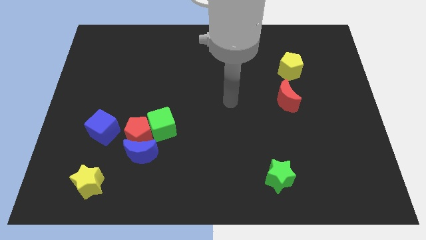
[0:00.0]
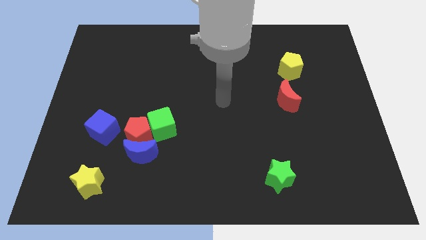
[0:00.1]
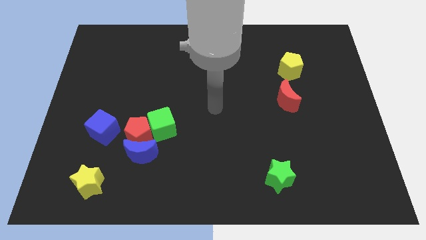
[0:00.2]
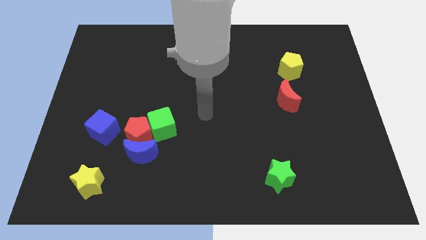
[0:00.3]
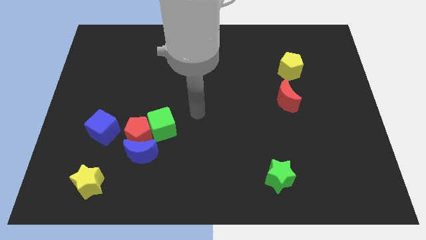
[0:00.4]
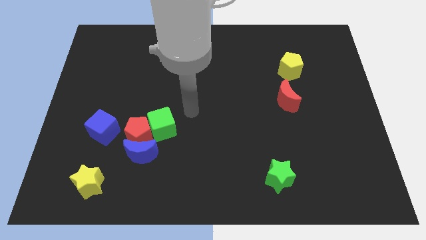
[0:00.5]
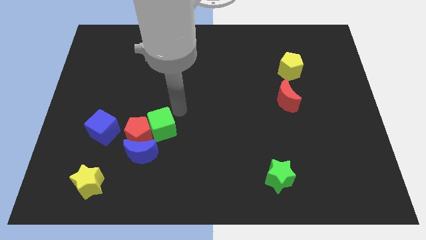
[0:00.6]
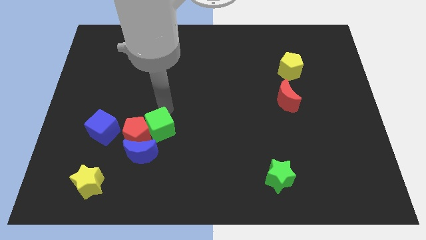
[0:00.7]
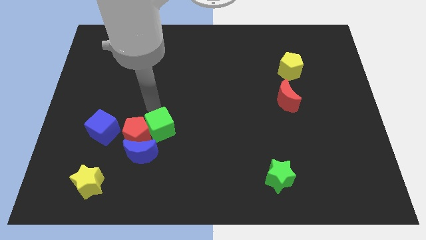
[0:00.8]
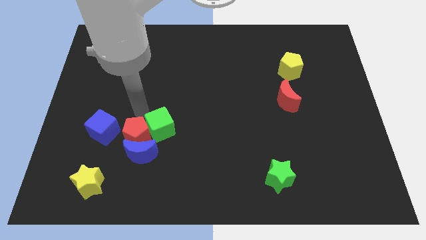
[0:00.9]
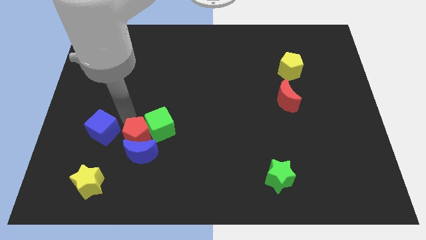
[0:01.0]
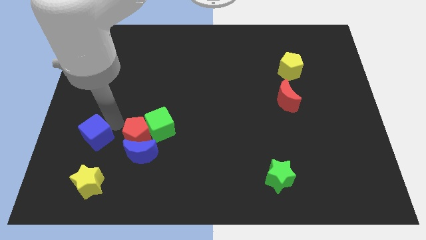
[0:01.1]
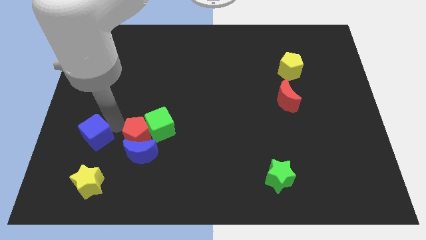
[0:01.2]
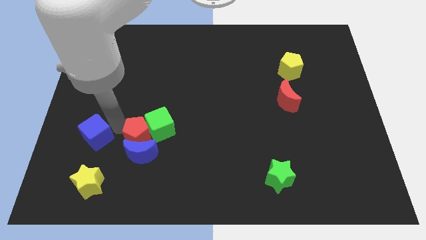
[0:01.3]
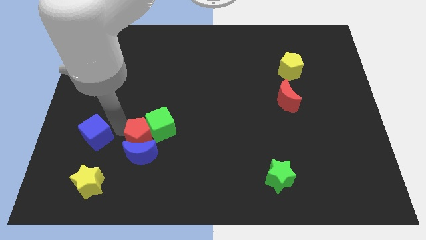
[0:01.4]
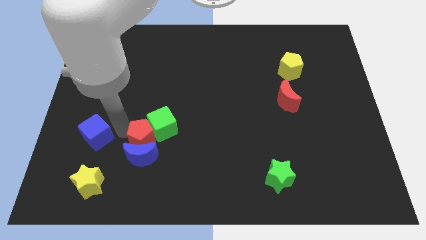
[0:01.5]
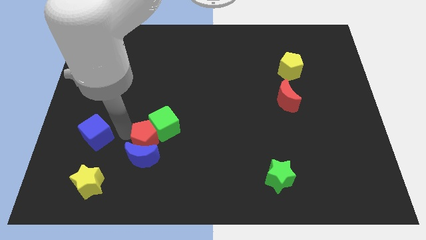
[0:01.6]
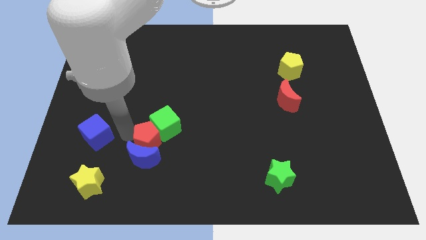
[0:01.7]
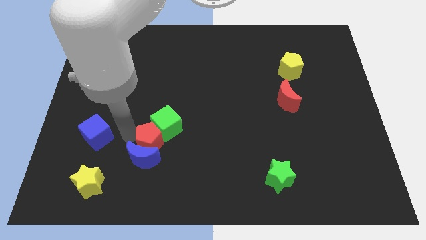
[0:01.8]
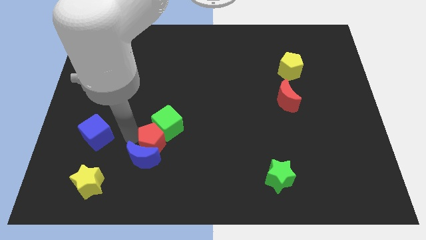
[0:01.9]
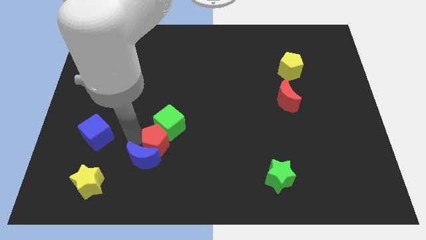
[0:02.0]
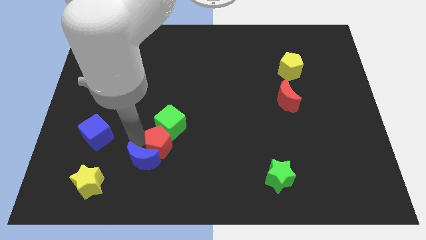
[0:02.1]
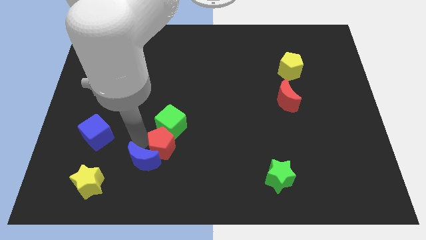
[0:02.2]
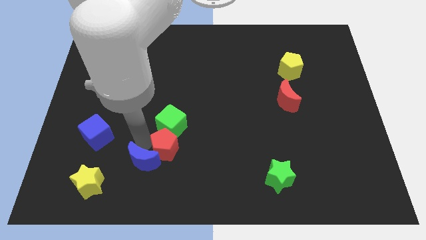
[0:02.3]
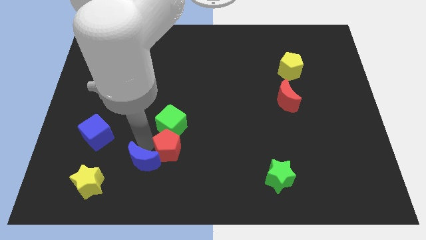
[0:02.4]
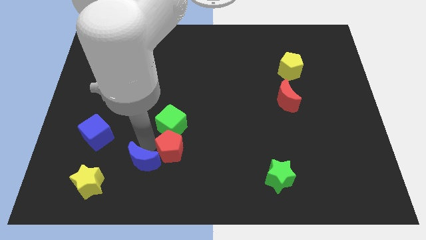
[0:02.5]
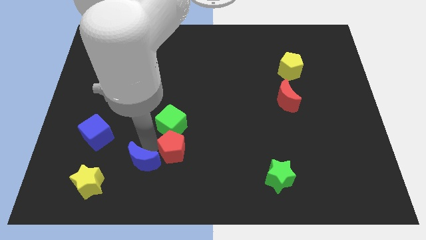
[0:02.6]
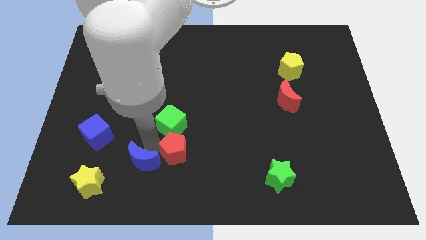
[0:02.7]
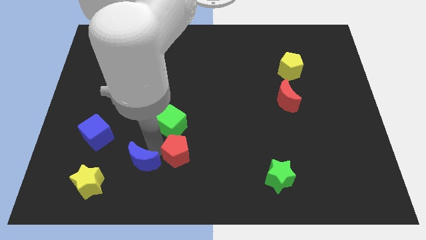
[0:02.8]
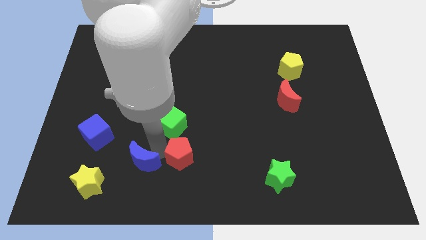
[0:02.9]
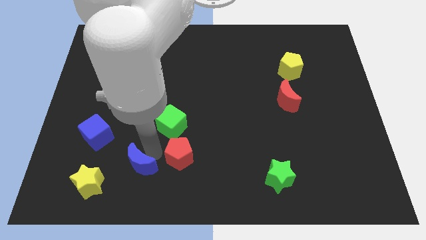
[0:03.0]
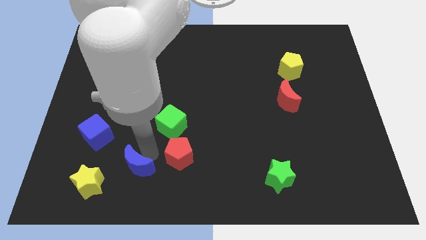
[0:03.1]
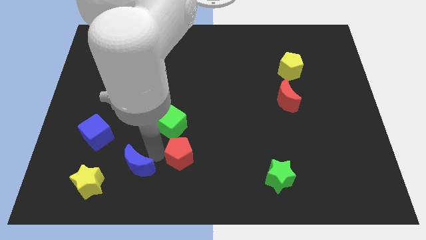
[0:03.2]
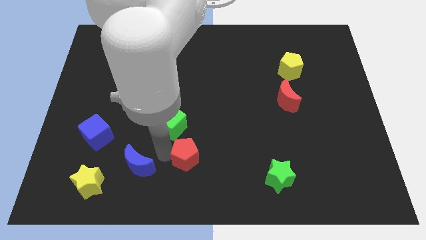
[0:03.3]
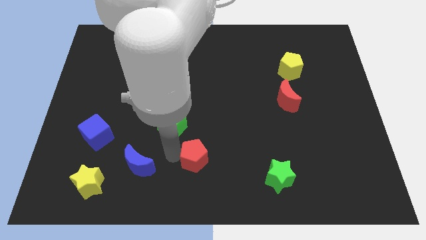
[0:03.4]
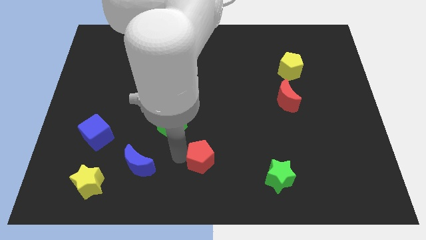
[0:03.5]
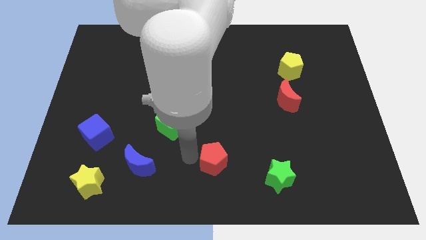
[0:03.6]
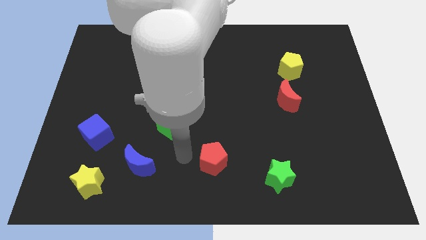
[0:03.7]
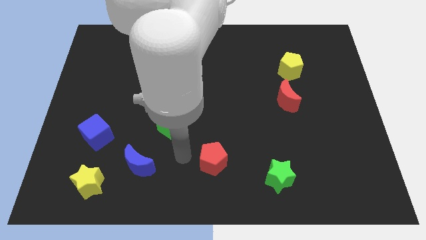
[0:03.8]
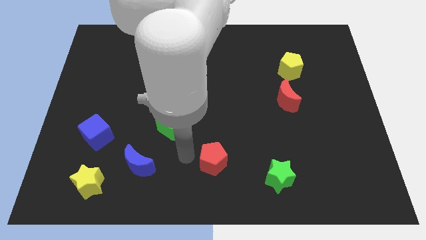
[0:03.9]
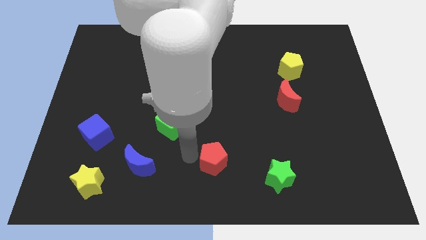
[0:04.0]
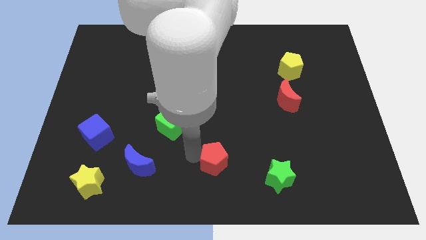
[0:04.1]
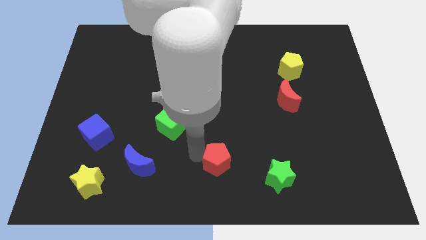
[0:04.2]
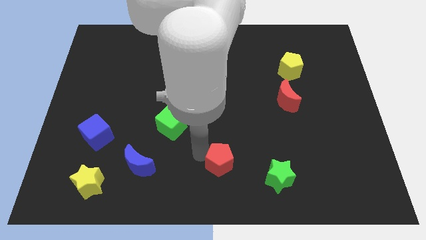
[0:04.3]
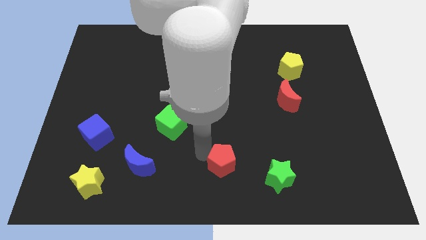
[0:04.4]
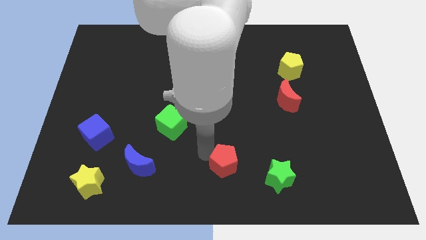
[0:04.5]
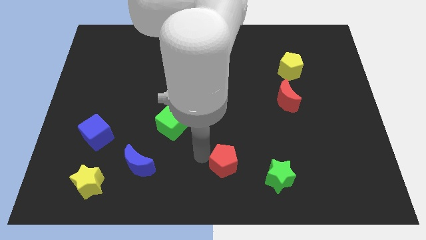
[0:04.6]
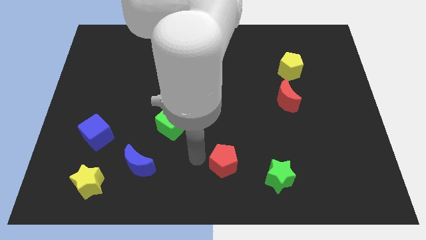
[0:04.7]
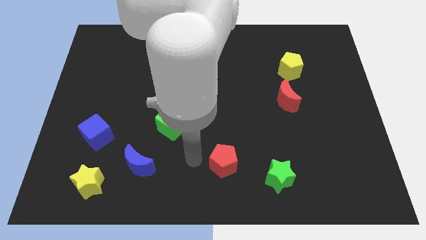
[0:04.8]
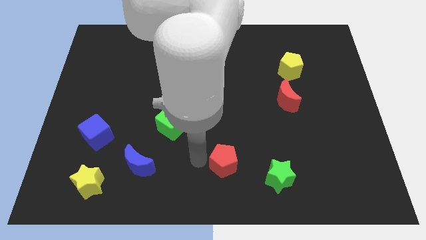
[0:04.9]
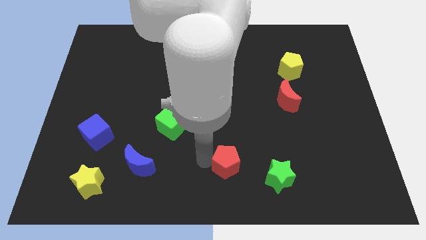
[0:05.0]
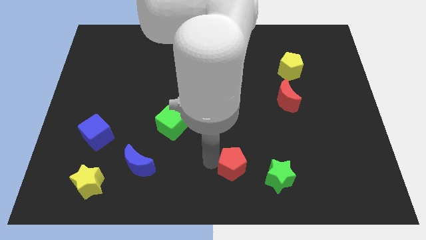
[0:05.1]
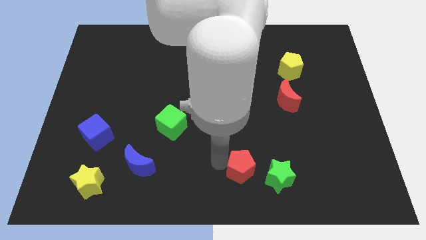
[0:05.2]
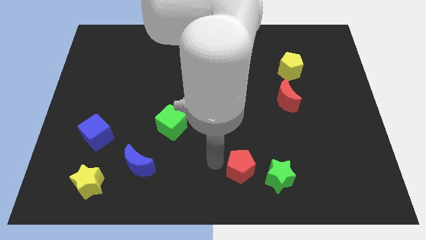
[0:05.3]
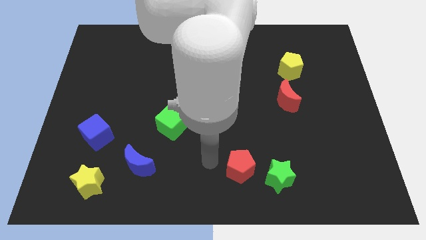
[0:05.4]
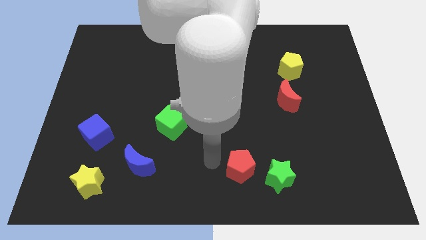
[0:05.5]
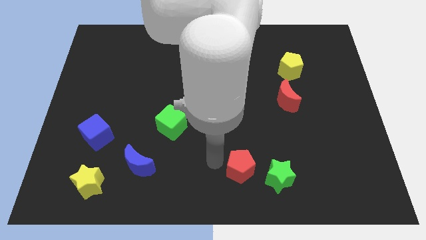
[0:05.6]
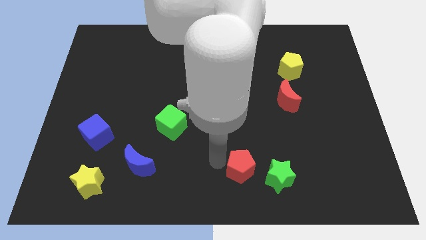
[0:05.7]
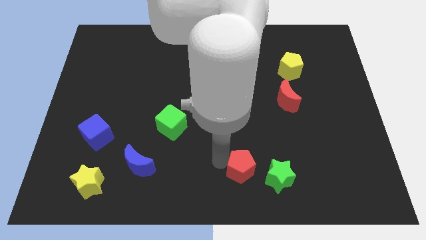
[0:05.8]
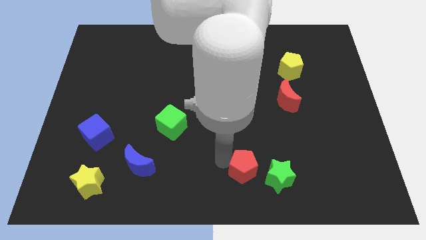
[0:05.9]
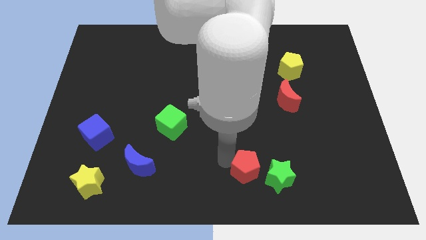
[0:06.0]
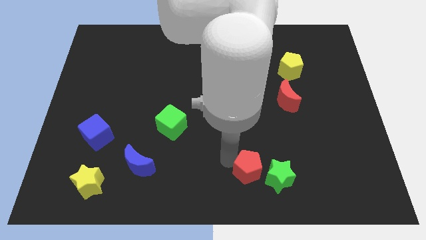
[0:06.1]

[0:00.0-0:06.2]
put the red pentagon close to the green star

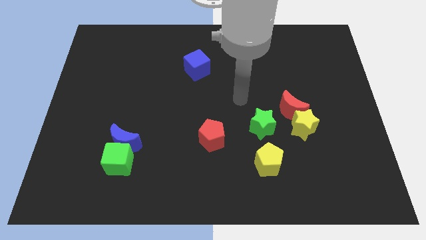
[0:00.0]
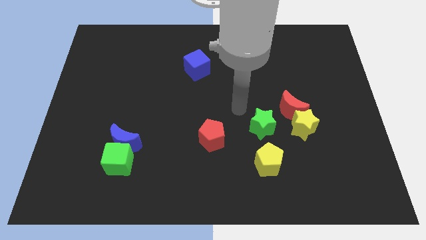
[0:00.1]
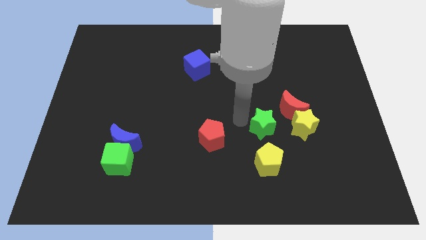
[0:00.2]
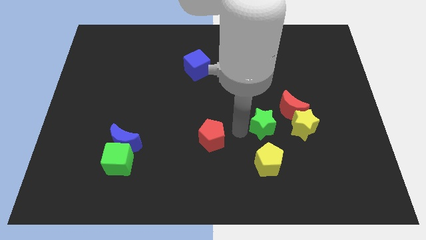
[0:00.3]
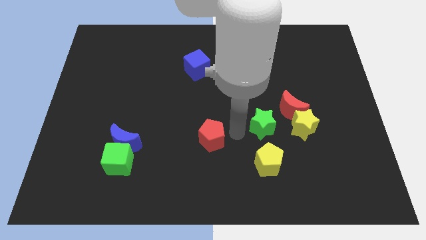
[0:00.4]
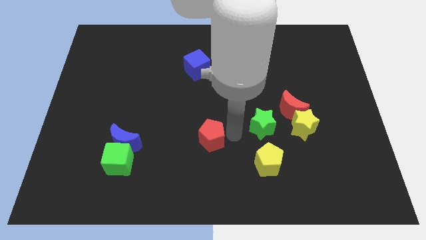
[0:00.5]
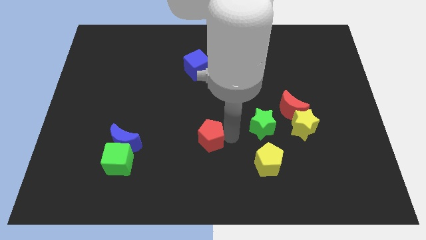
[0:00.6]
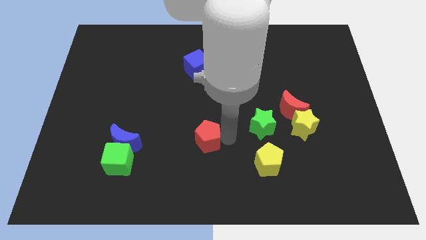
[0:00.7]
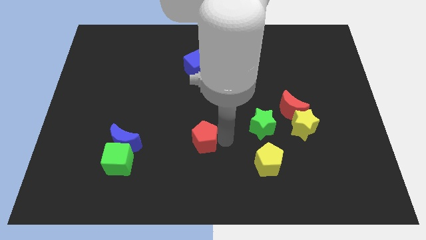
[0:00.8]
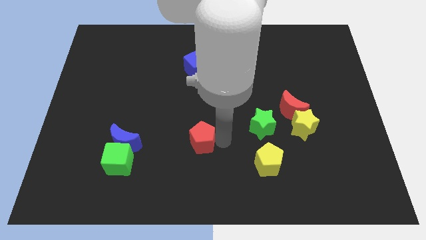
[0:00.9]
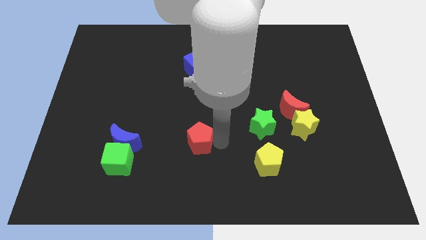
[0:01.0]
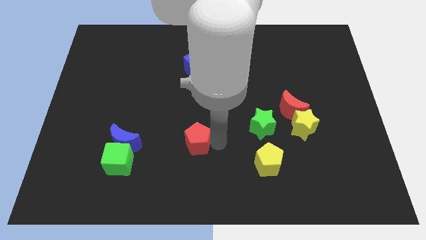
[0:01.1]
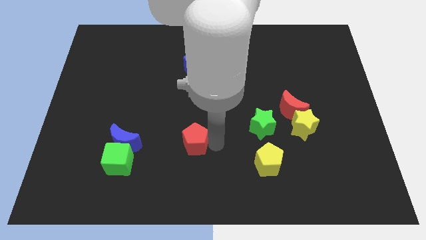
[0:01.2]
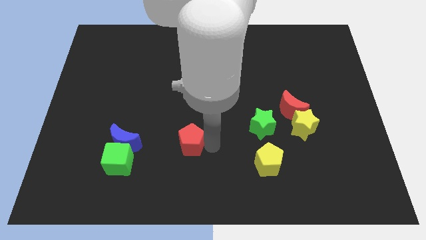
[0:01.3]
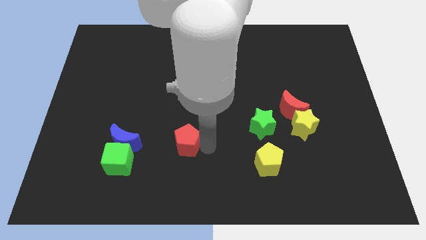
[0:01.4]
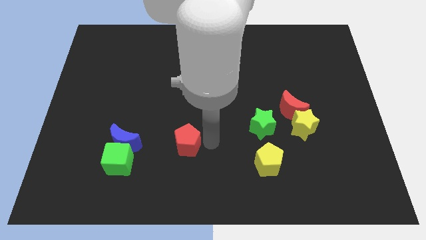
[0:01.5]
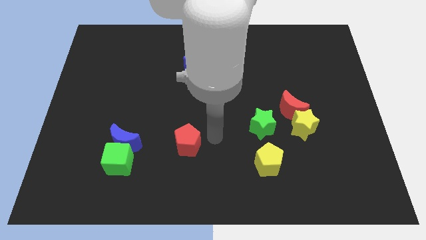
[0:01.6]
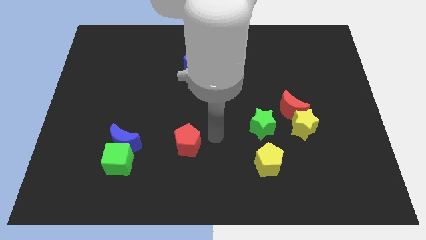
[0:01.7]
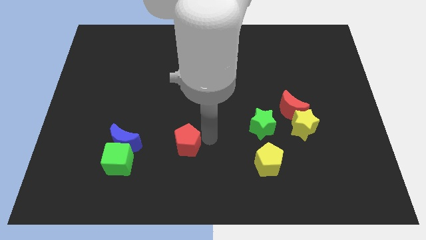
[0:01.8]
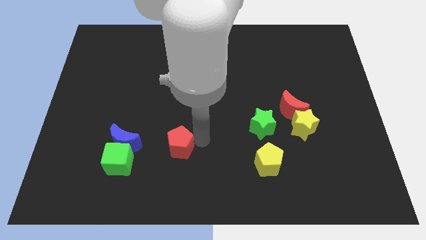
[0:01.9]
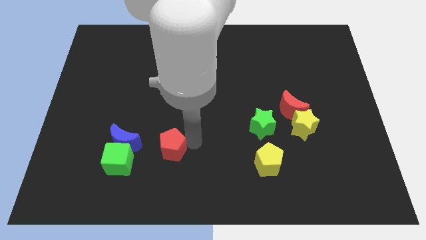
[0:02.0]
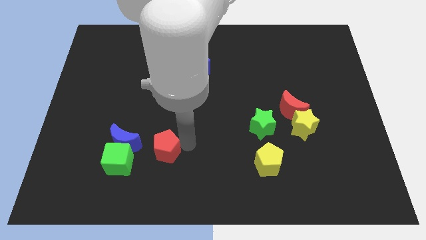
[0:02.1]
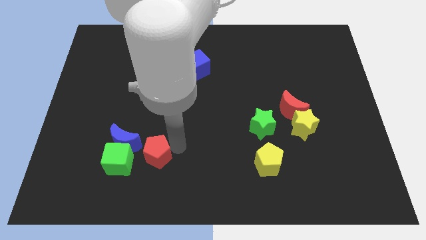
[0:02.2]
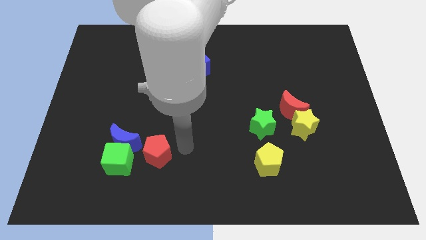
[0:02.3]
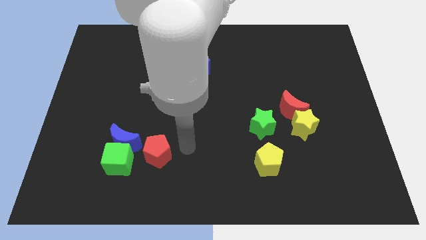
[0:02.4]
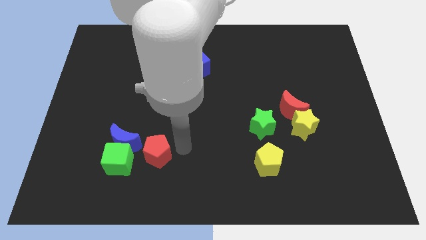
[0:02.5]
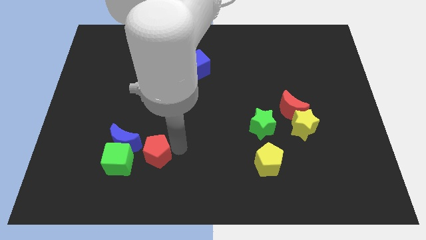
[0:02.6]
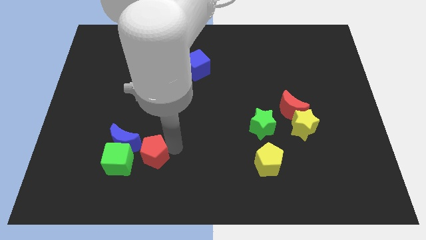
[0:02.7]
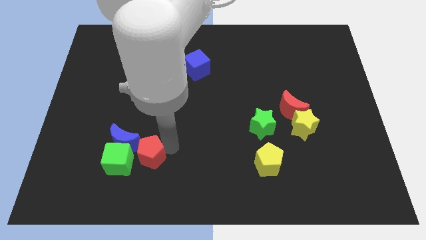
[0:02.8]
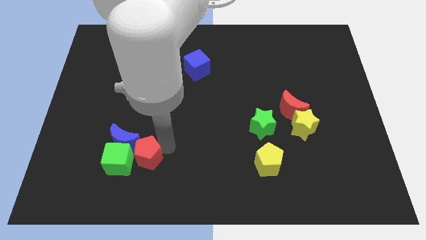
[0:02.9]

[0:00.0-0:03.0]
put the red pentagon to the green cube
